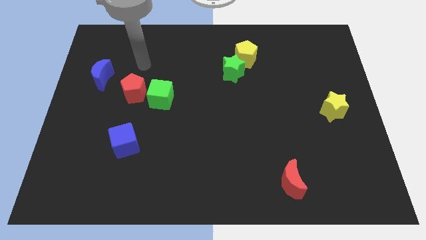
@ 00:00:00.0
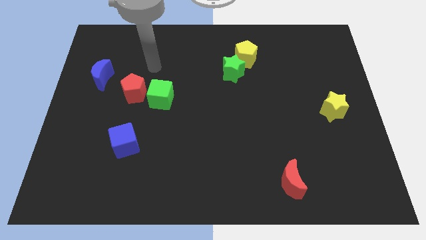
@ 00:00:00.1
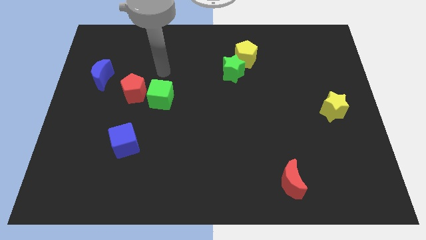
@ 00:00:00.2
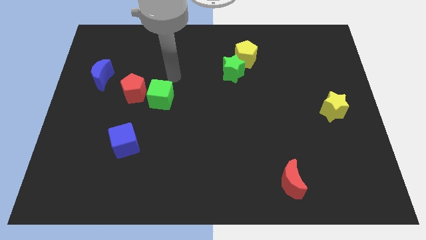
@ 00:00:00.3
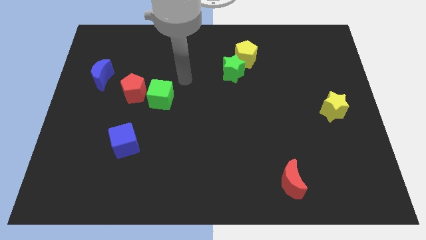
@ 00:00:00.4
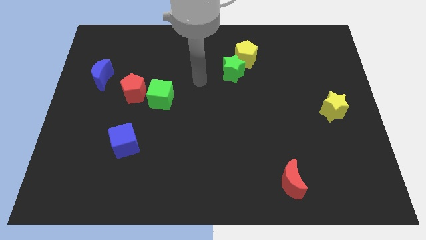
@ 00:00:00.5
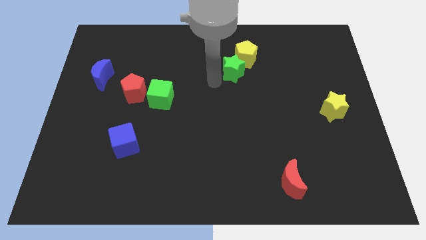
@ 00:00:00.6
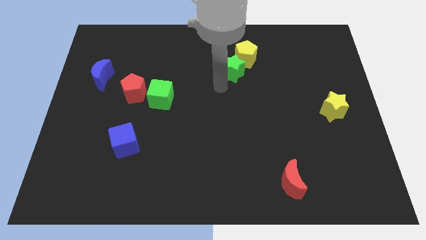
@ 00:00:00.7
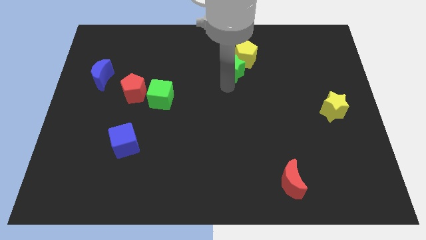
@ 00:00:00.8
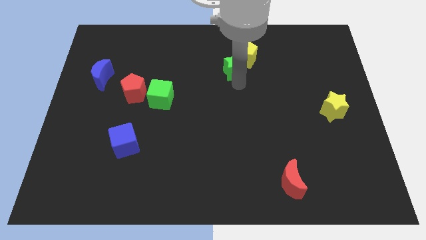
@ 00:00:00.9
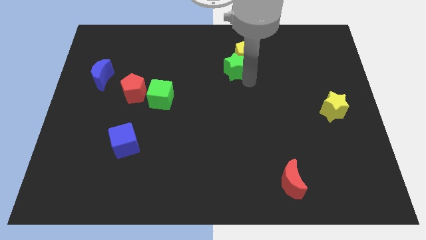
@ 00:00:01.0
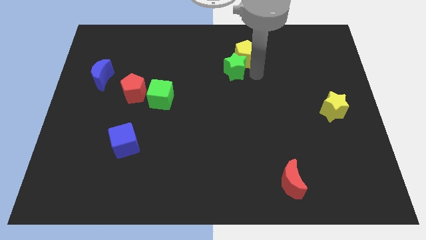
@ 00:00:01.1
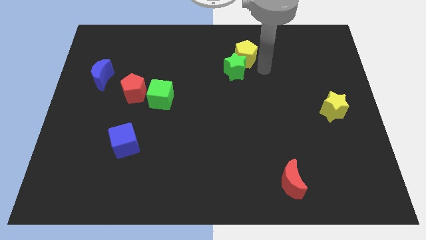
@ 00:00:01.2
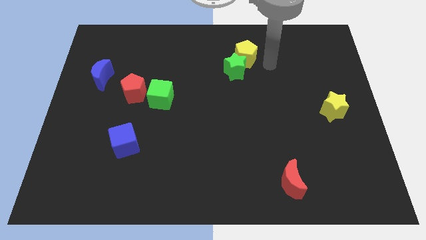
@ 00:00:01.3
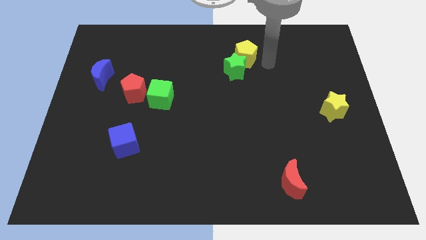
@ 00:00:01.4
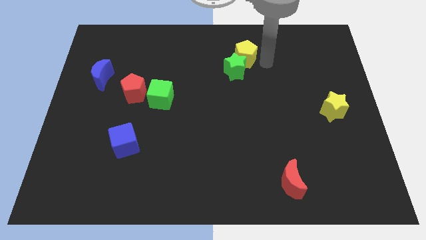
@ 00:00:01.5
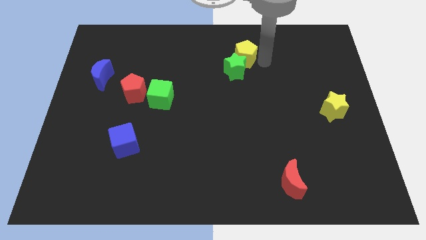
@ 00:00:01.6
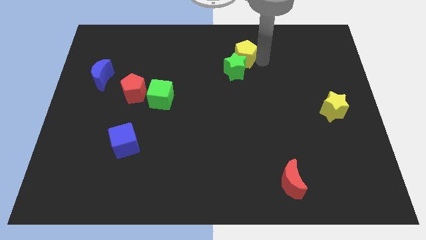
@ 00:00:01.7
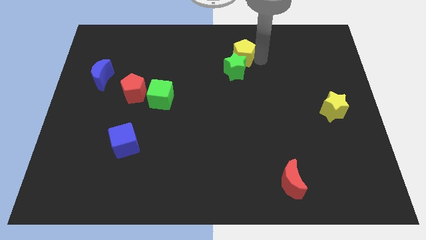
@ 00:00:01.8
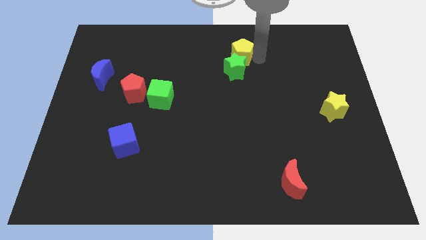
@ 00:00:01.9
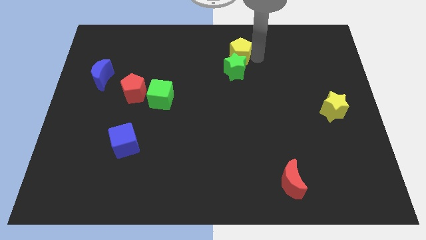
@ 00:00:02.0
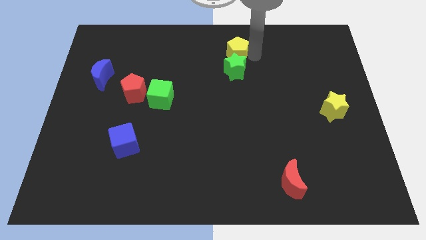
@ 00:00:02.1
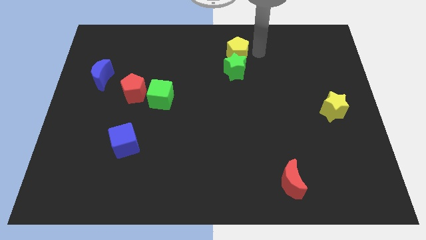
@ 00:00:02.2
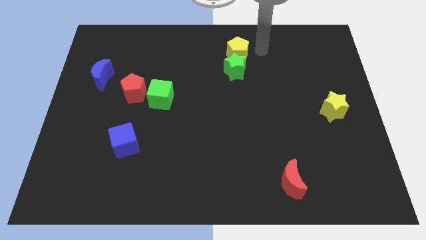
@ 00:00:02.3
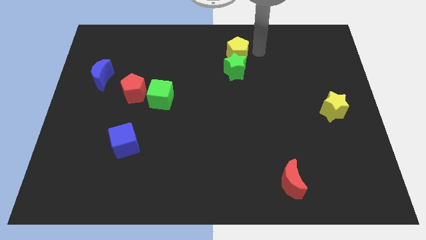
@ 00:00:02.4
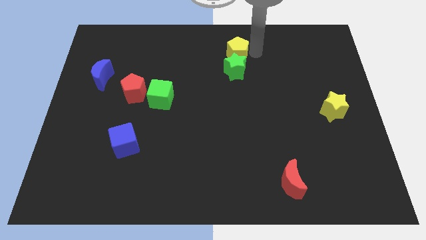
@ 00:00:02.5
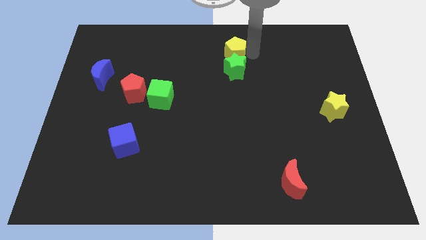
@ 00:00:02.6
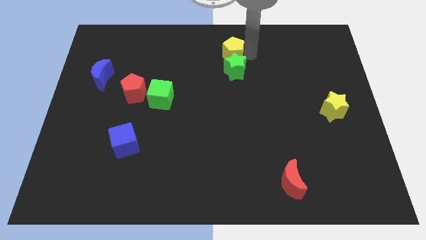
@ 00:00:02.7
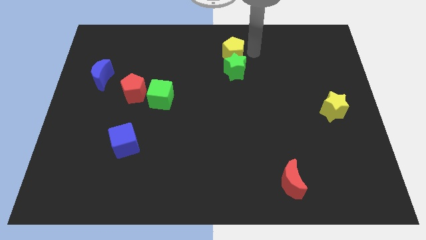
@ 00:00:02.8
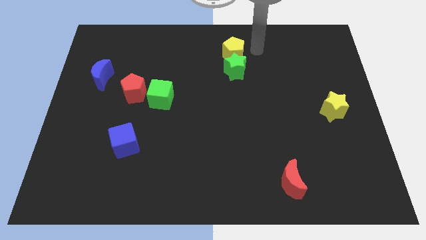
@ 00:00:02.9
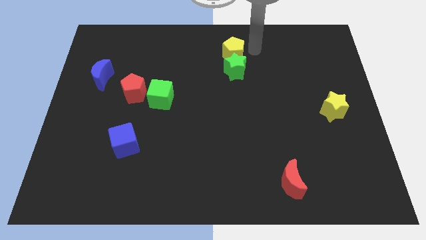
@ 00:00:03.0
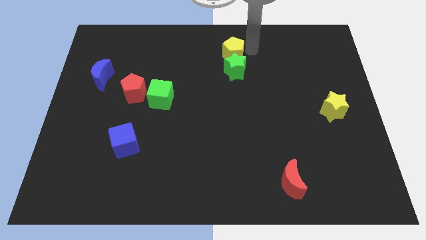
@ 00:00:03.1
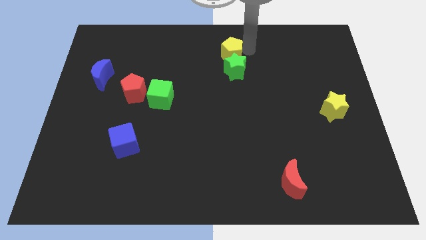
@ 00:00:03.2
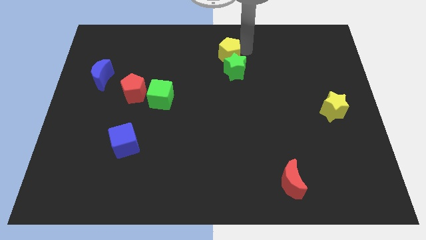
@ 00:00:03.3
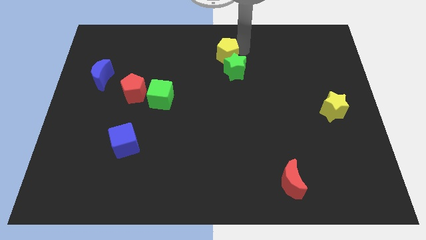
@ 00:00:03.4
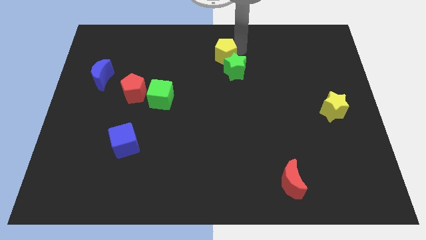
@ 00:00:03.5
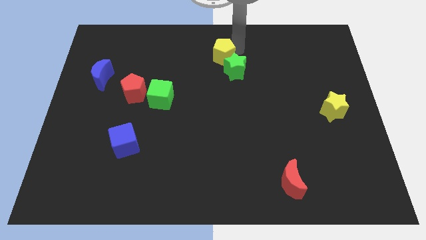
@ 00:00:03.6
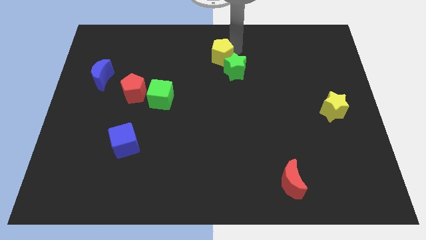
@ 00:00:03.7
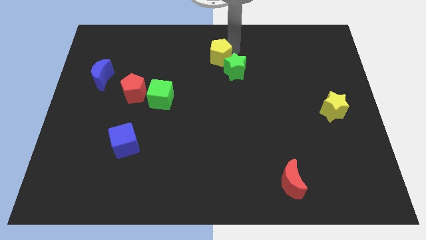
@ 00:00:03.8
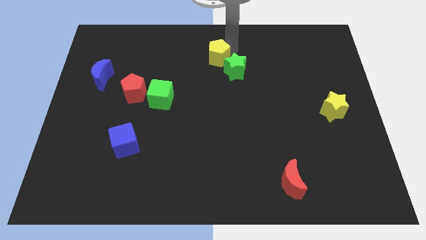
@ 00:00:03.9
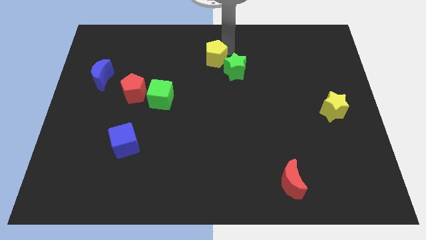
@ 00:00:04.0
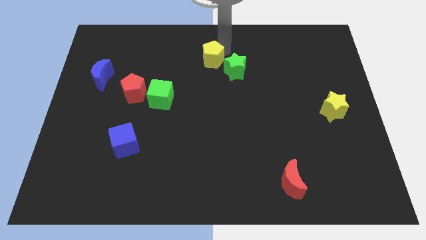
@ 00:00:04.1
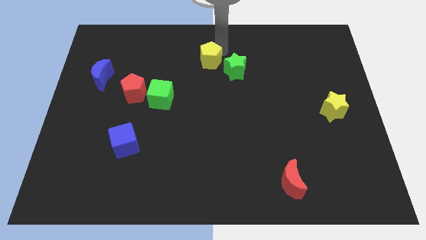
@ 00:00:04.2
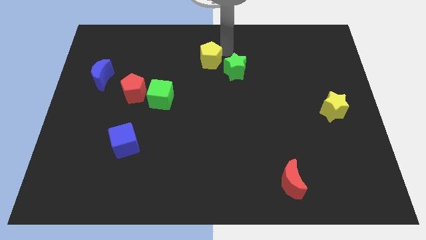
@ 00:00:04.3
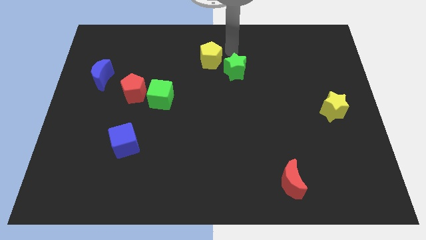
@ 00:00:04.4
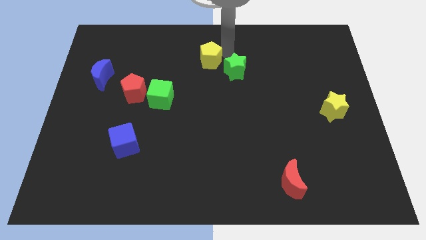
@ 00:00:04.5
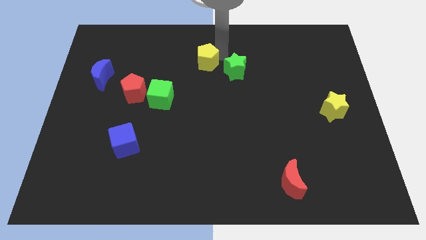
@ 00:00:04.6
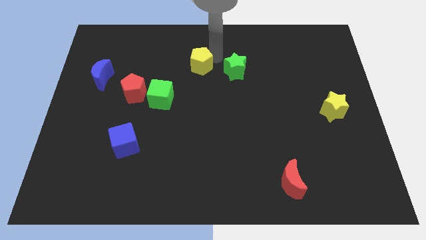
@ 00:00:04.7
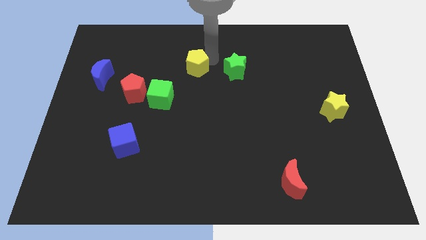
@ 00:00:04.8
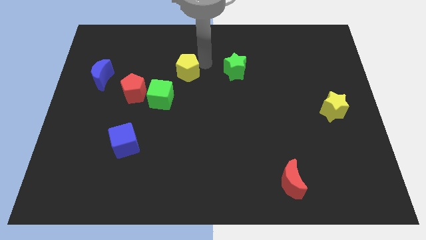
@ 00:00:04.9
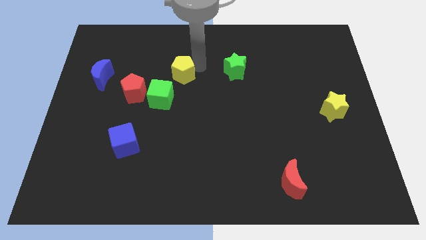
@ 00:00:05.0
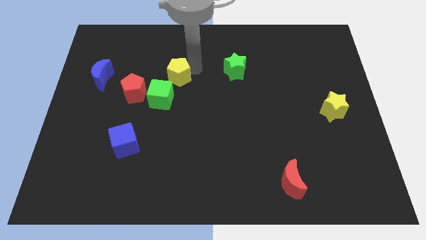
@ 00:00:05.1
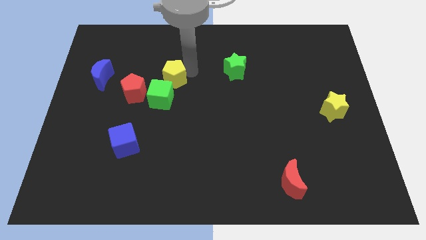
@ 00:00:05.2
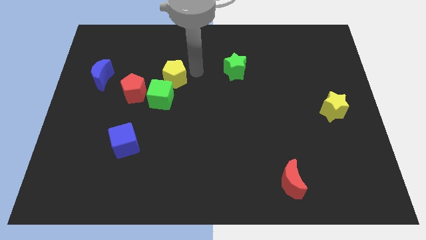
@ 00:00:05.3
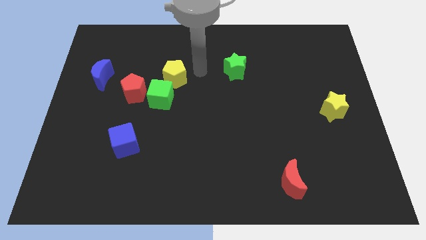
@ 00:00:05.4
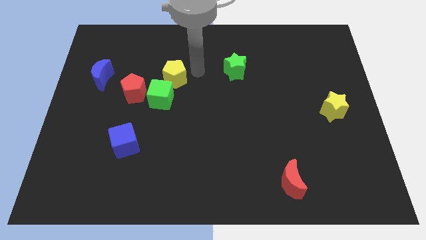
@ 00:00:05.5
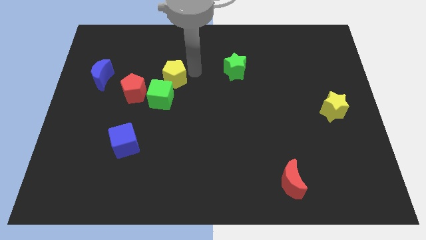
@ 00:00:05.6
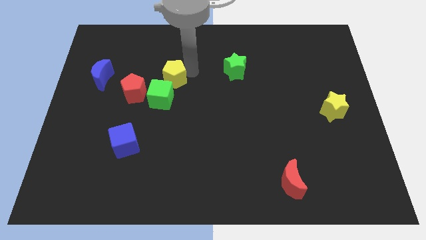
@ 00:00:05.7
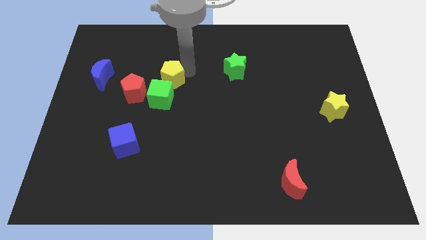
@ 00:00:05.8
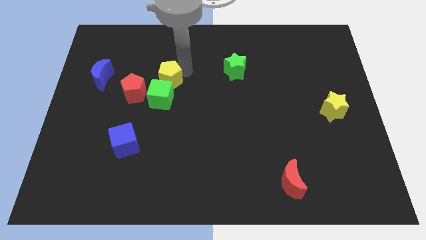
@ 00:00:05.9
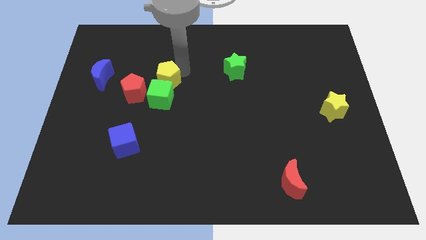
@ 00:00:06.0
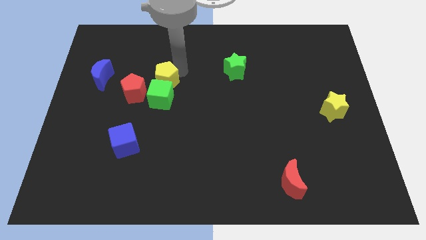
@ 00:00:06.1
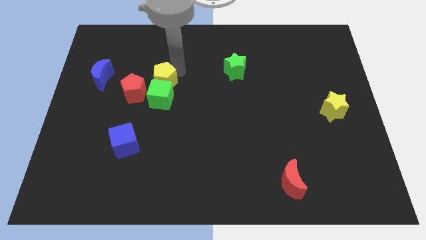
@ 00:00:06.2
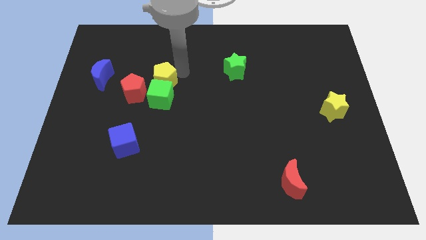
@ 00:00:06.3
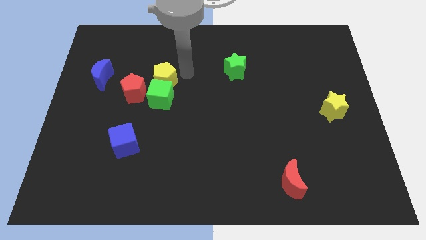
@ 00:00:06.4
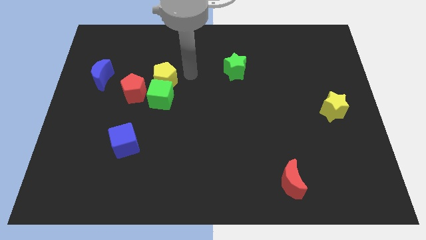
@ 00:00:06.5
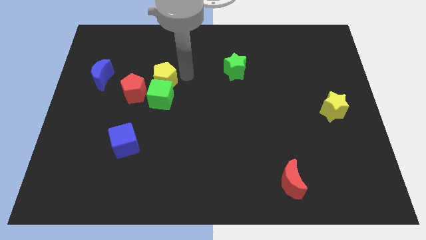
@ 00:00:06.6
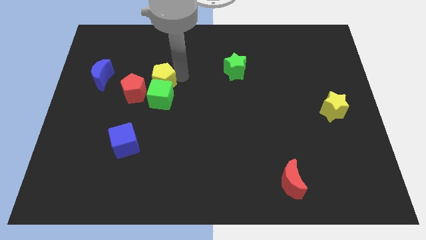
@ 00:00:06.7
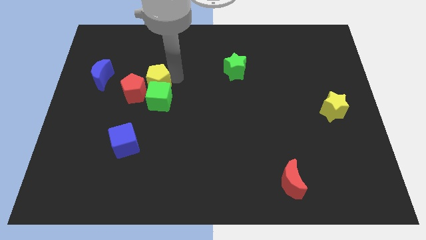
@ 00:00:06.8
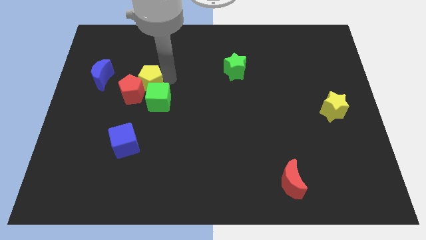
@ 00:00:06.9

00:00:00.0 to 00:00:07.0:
push the yellow pentagon towards the red pentagon
